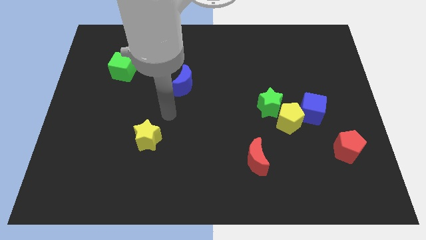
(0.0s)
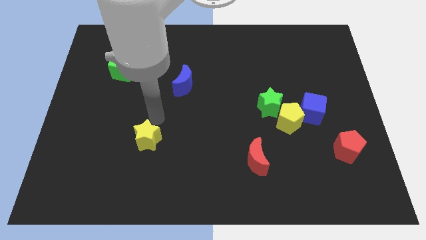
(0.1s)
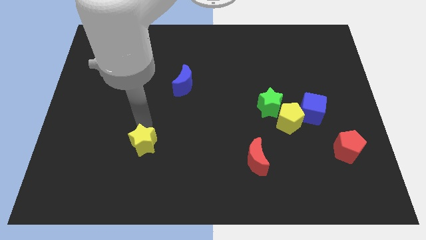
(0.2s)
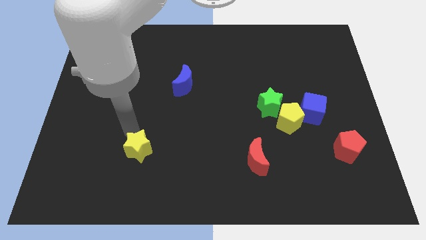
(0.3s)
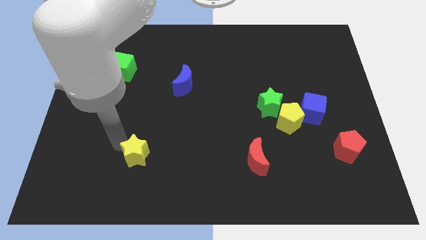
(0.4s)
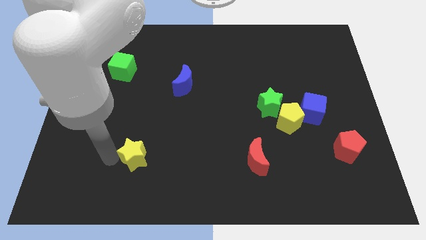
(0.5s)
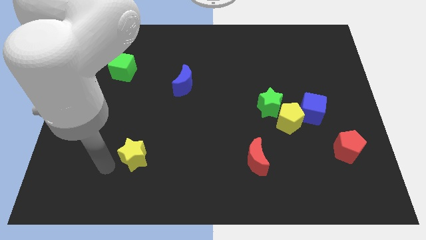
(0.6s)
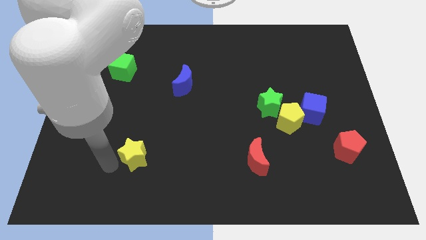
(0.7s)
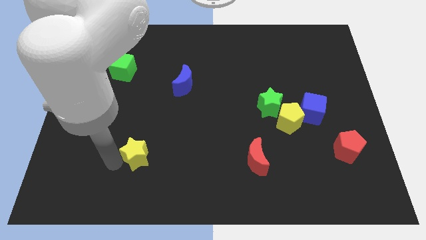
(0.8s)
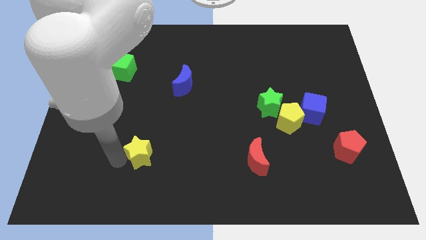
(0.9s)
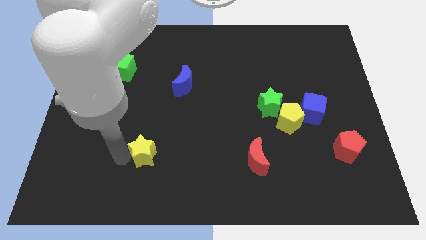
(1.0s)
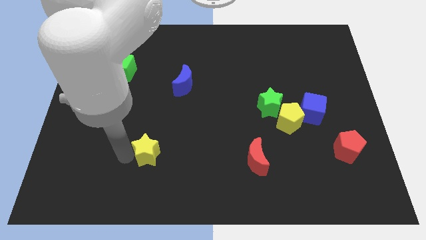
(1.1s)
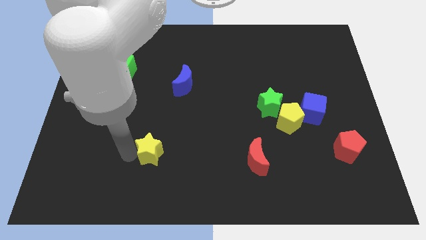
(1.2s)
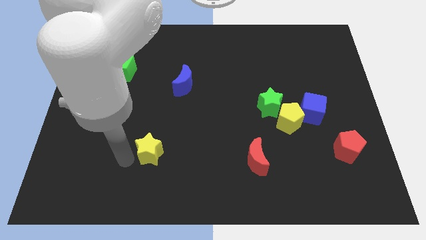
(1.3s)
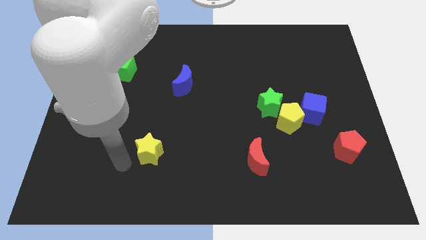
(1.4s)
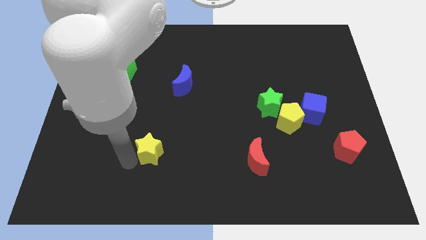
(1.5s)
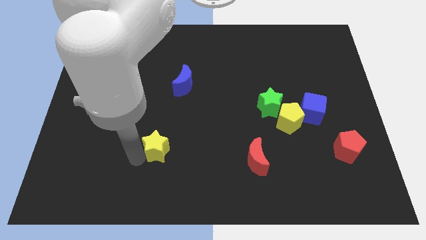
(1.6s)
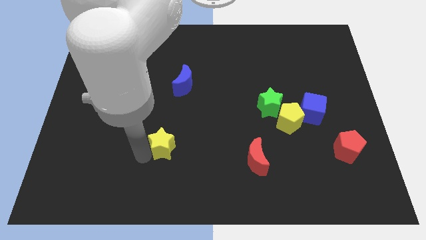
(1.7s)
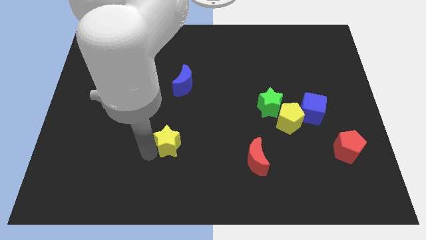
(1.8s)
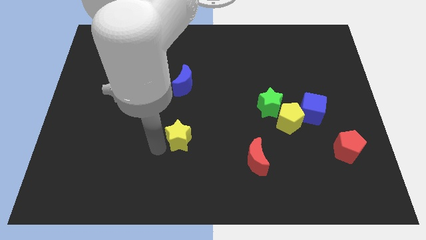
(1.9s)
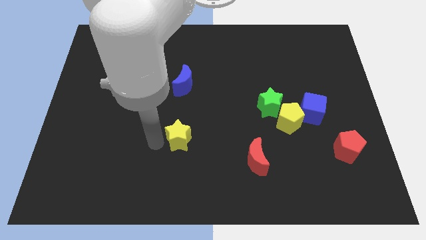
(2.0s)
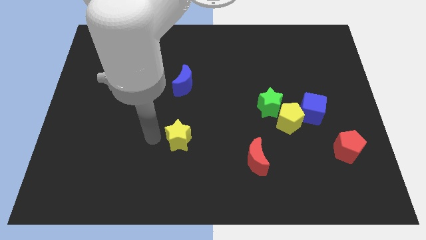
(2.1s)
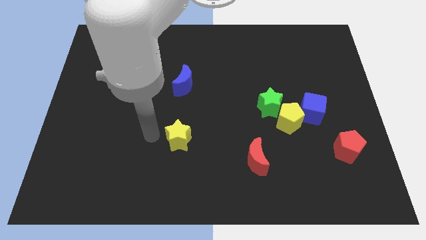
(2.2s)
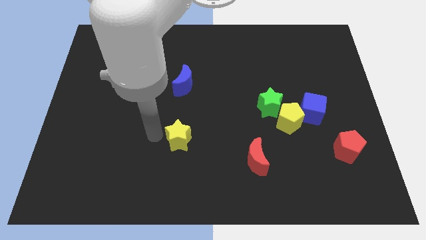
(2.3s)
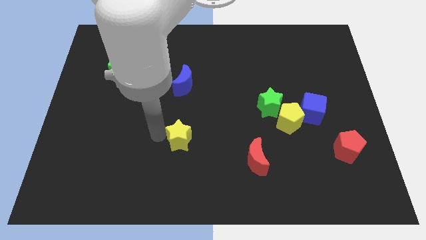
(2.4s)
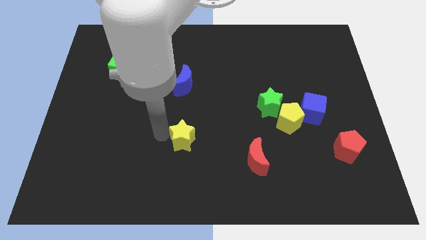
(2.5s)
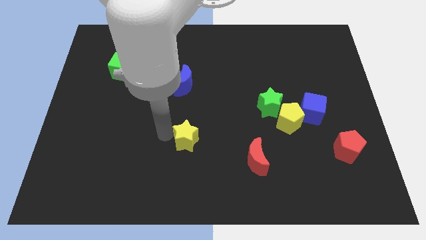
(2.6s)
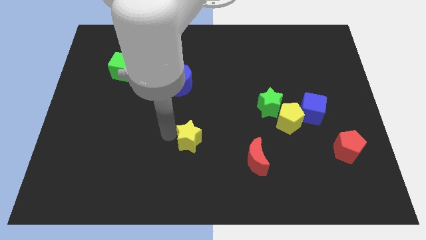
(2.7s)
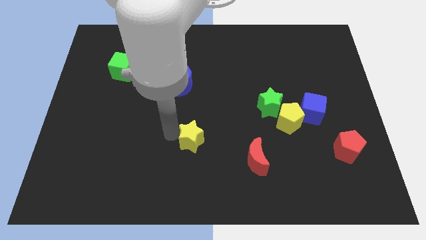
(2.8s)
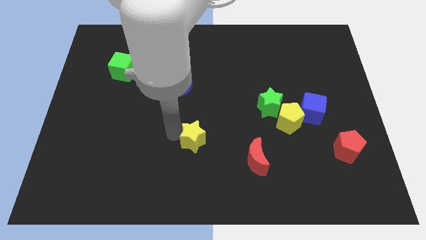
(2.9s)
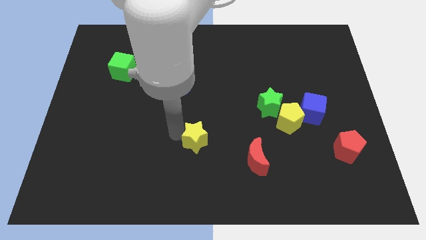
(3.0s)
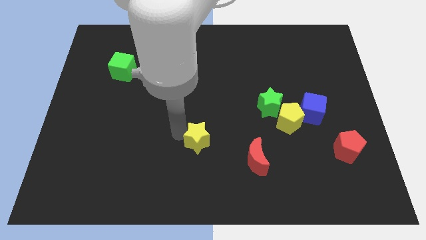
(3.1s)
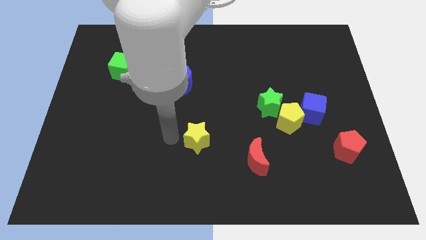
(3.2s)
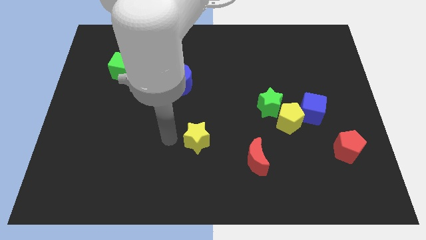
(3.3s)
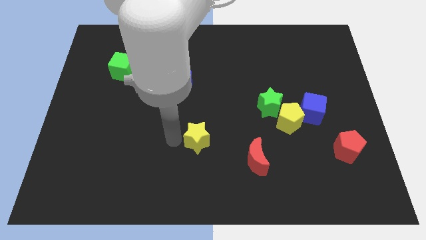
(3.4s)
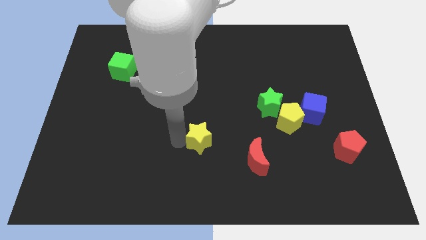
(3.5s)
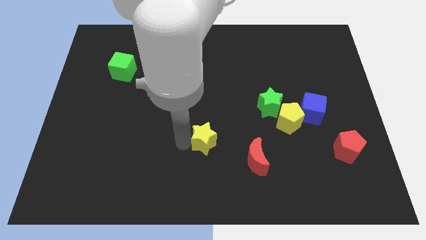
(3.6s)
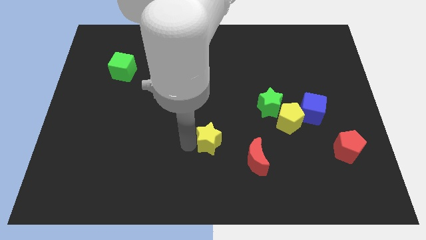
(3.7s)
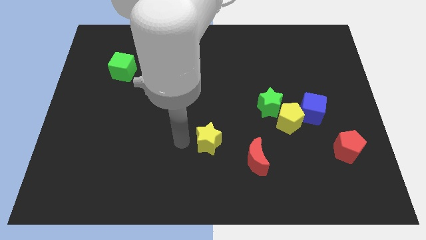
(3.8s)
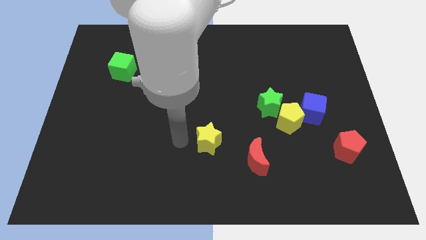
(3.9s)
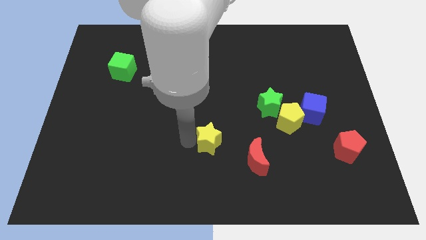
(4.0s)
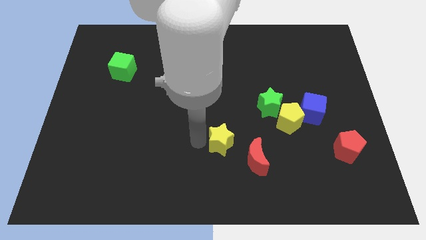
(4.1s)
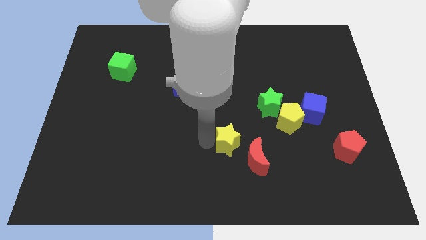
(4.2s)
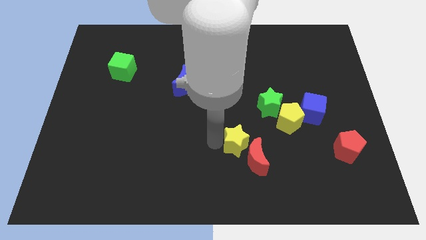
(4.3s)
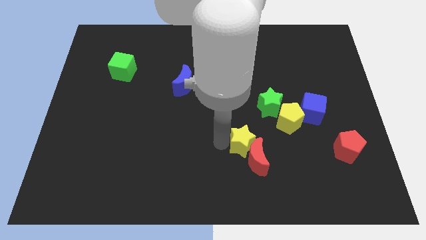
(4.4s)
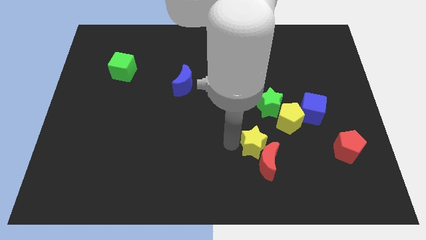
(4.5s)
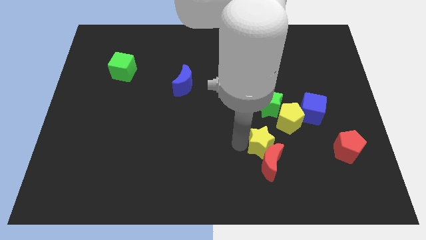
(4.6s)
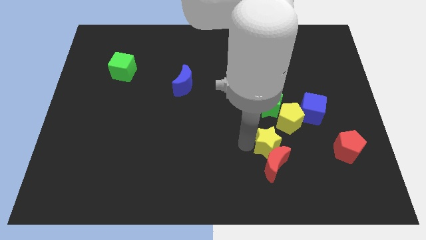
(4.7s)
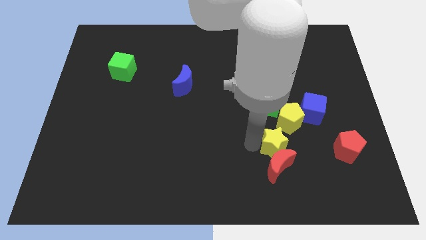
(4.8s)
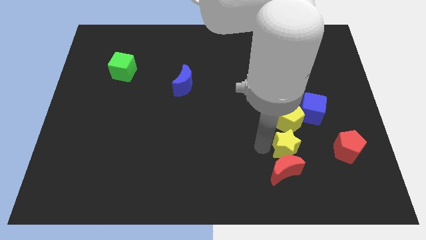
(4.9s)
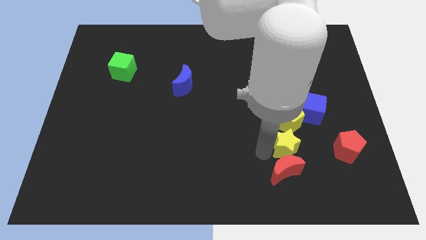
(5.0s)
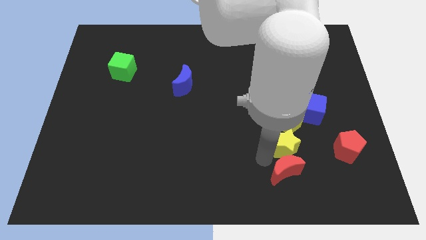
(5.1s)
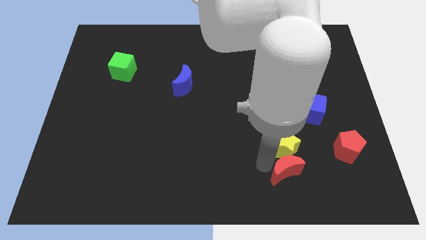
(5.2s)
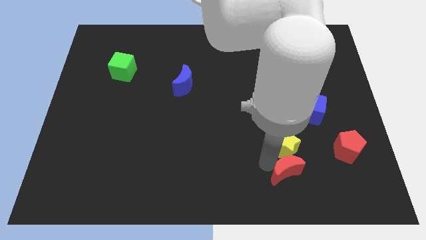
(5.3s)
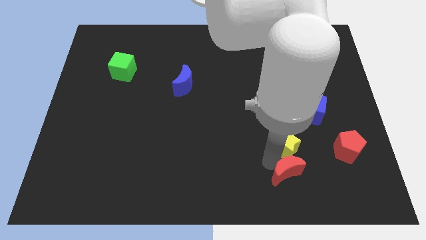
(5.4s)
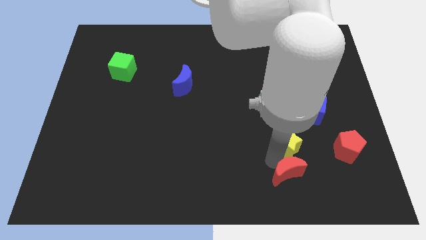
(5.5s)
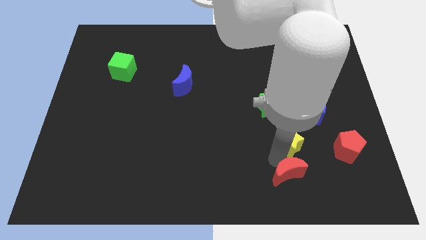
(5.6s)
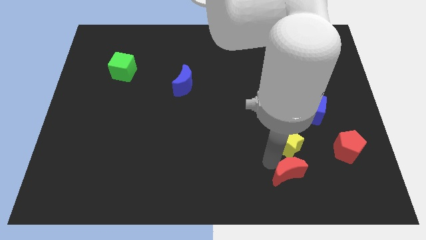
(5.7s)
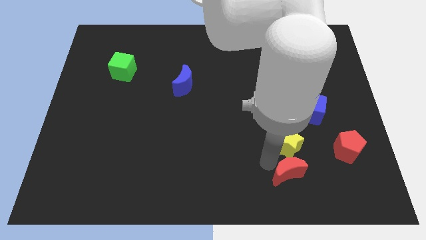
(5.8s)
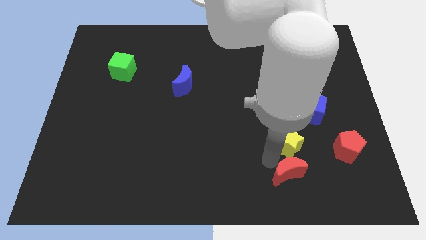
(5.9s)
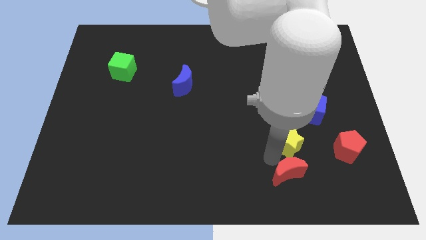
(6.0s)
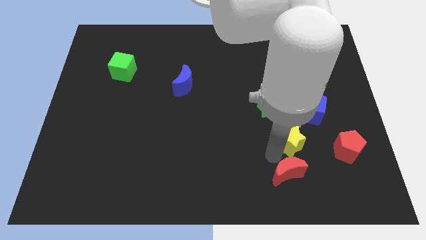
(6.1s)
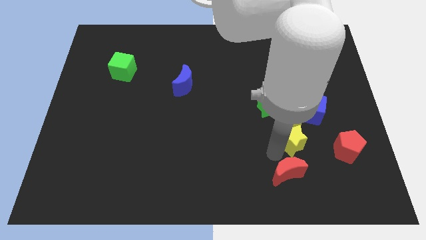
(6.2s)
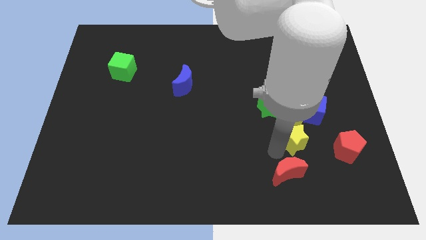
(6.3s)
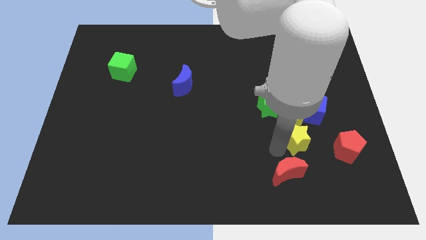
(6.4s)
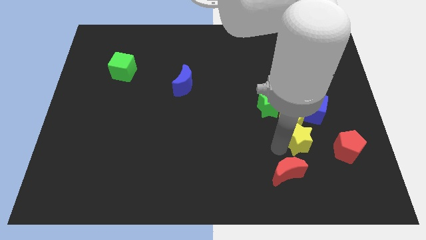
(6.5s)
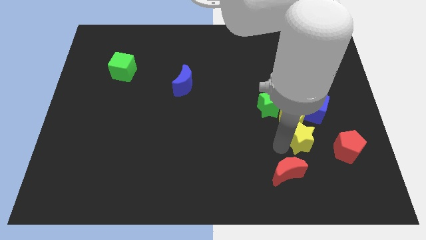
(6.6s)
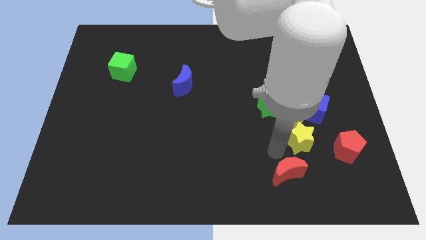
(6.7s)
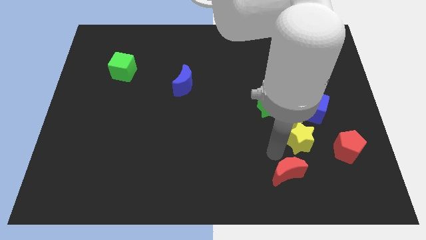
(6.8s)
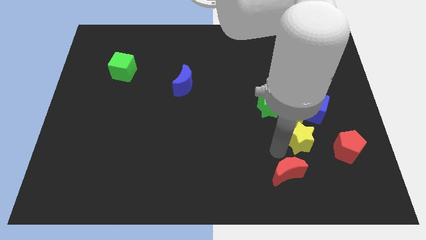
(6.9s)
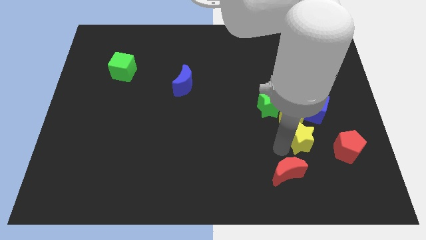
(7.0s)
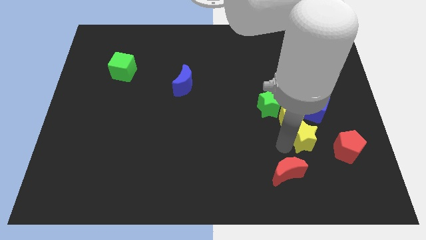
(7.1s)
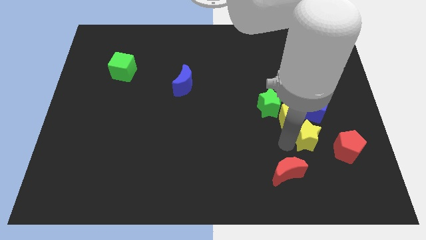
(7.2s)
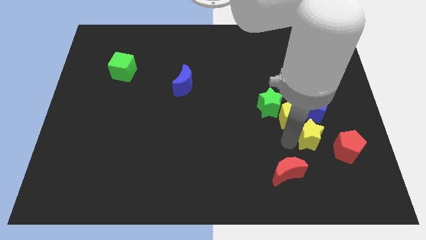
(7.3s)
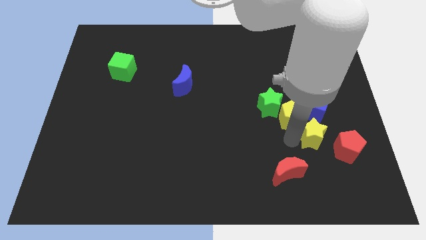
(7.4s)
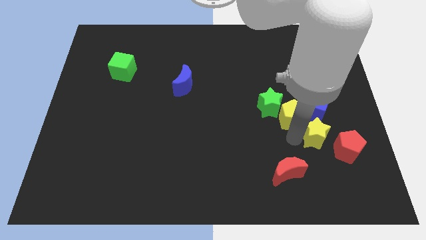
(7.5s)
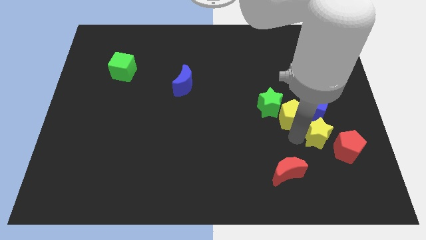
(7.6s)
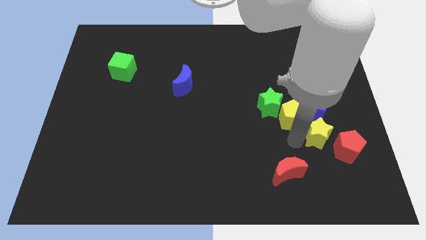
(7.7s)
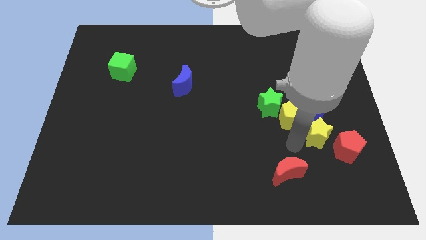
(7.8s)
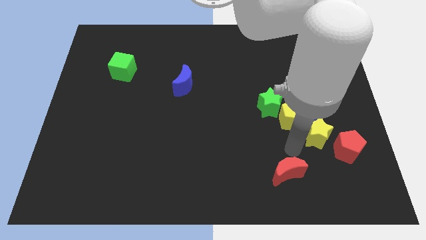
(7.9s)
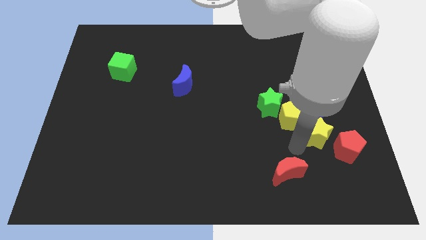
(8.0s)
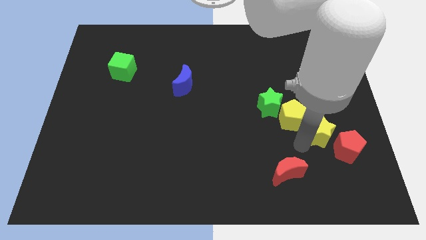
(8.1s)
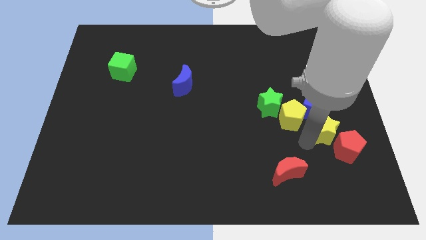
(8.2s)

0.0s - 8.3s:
slide the yellow star above the red pentagon
